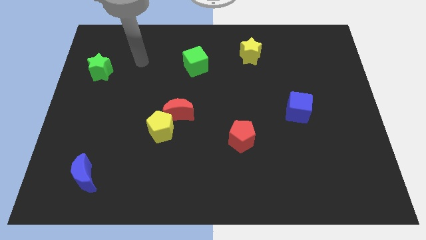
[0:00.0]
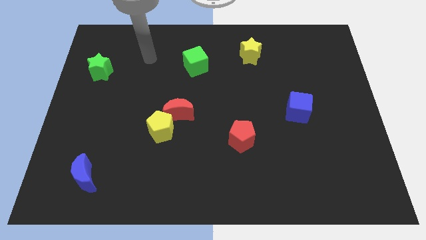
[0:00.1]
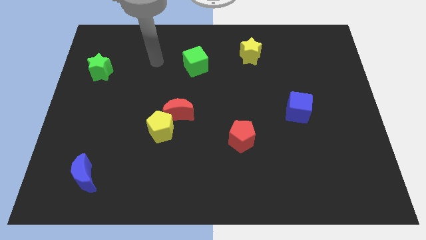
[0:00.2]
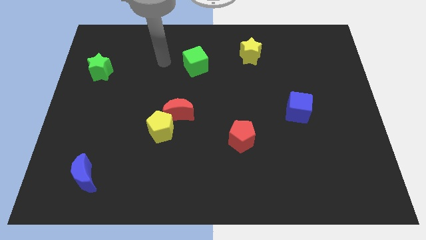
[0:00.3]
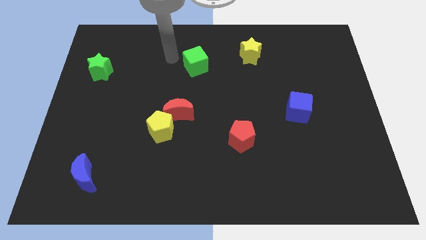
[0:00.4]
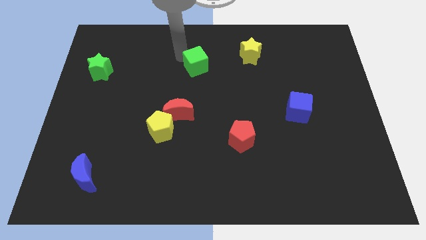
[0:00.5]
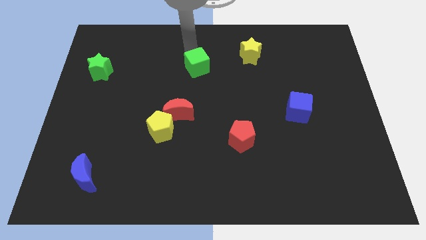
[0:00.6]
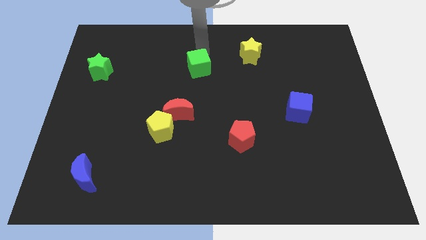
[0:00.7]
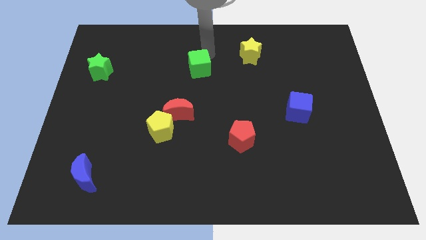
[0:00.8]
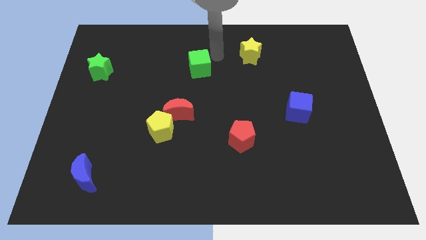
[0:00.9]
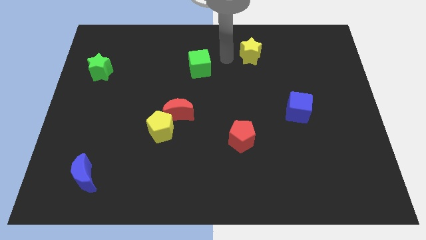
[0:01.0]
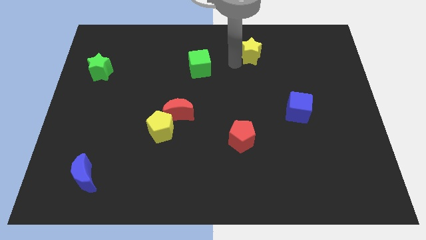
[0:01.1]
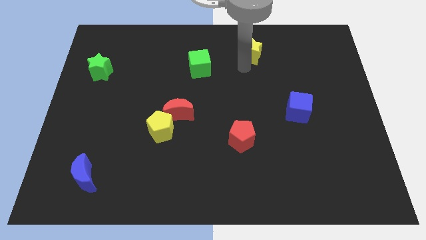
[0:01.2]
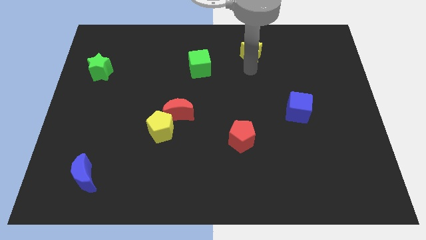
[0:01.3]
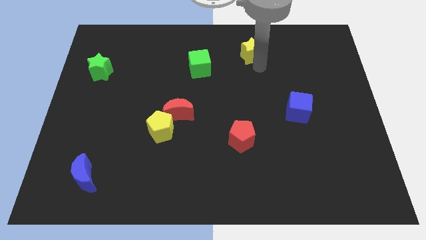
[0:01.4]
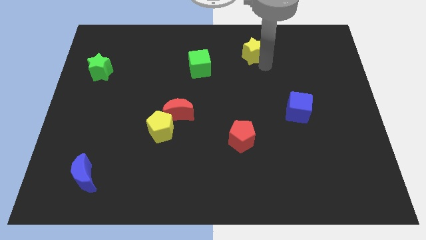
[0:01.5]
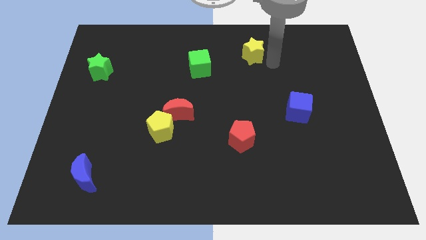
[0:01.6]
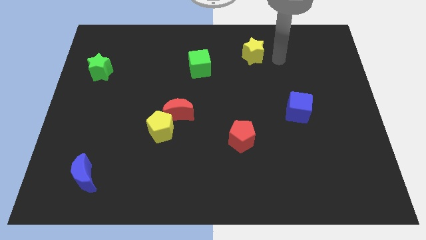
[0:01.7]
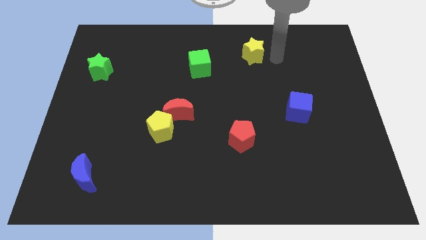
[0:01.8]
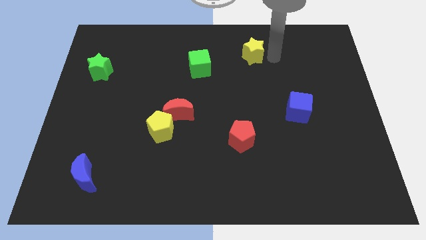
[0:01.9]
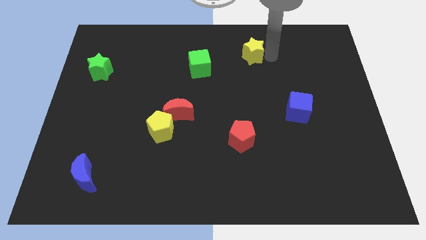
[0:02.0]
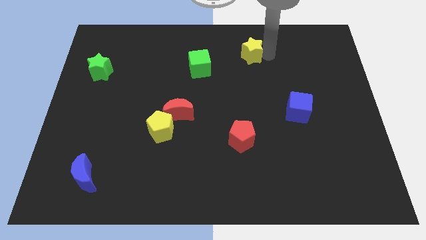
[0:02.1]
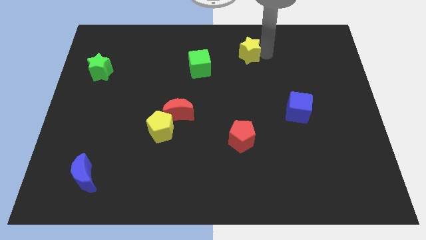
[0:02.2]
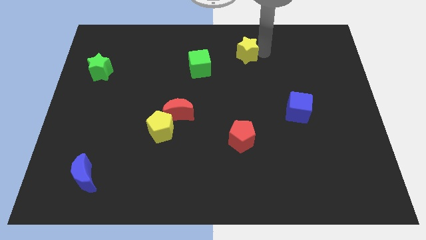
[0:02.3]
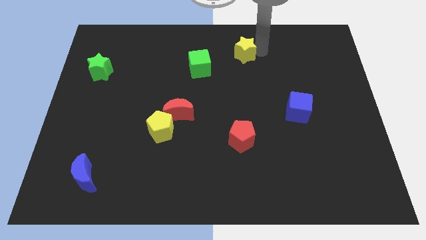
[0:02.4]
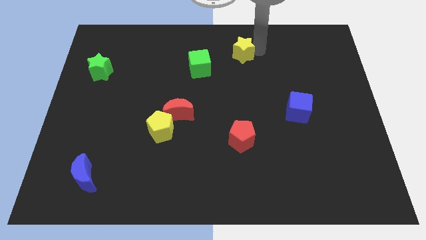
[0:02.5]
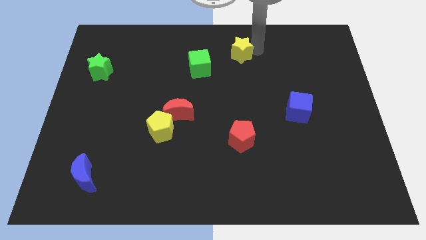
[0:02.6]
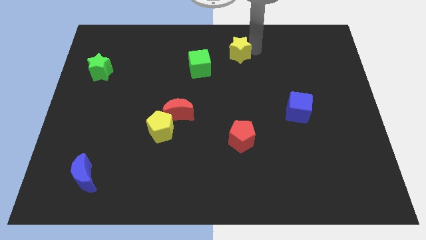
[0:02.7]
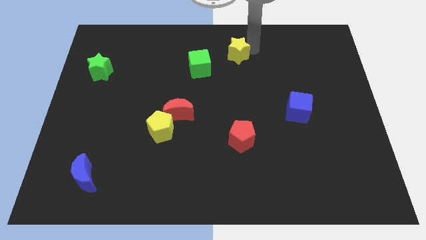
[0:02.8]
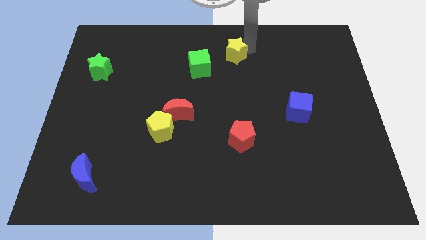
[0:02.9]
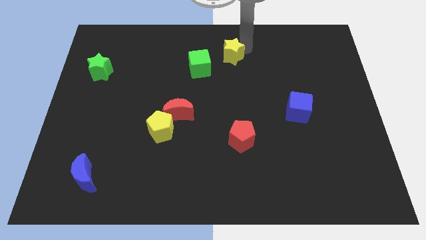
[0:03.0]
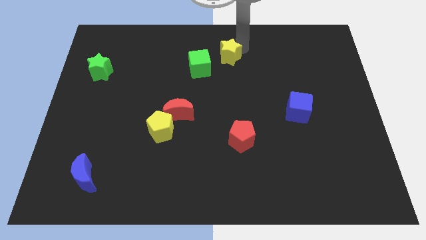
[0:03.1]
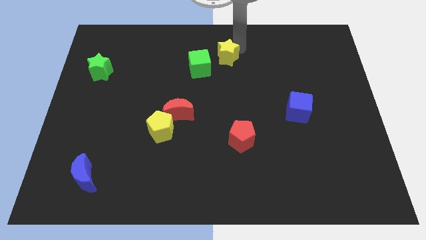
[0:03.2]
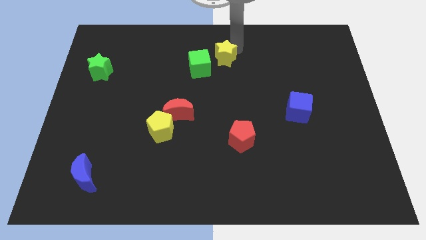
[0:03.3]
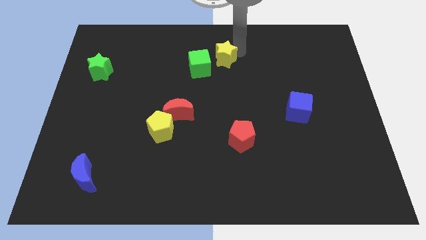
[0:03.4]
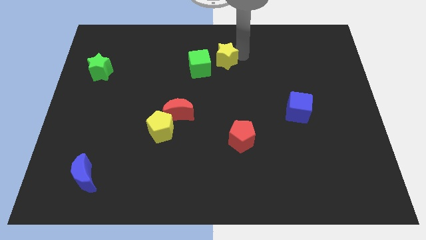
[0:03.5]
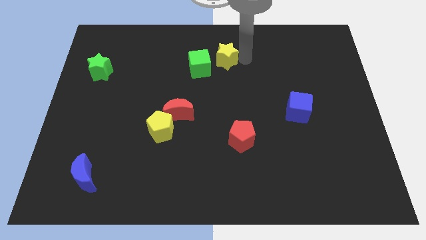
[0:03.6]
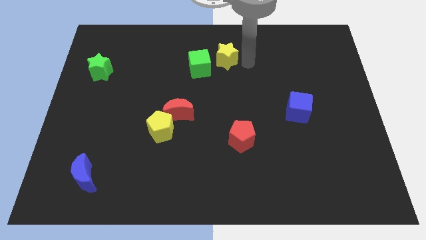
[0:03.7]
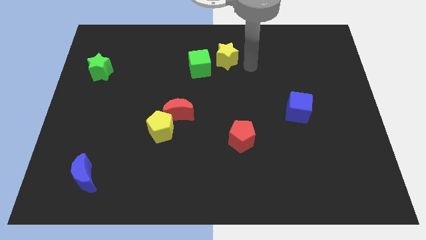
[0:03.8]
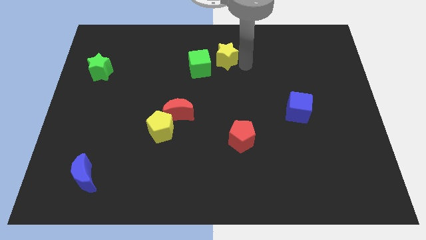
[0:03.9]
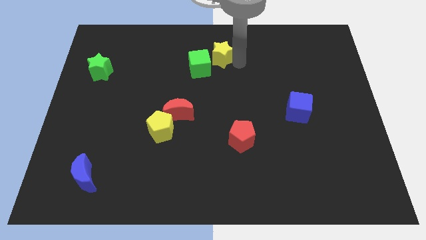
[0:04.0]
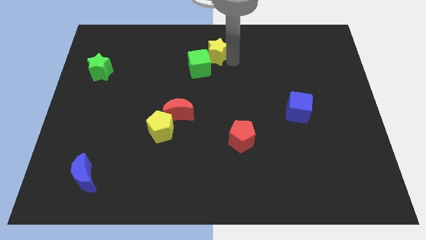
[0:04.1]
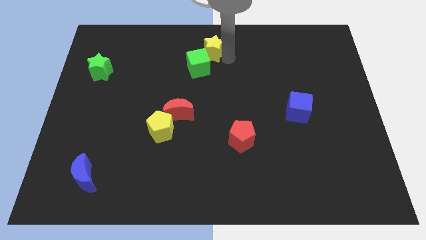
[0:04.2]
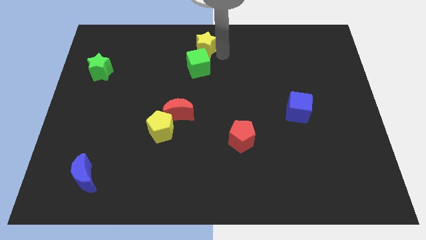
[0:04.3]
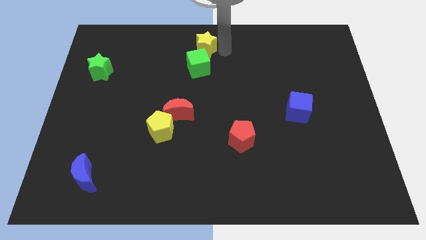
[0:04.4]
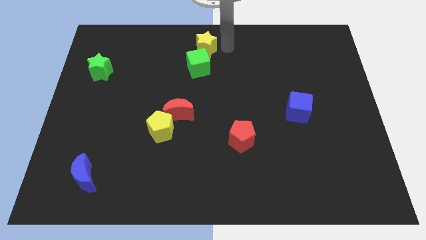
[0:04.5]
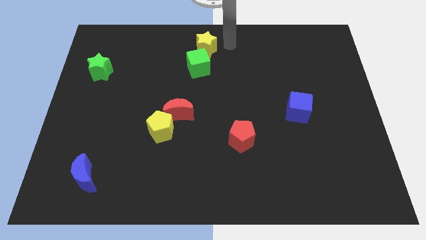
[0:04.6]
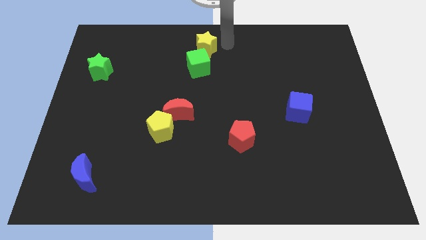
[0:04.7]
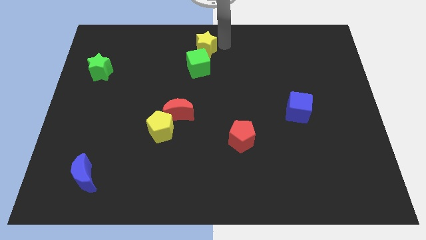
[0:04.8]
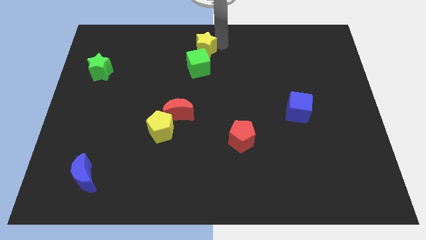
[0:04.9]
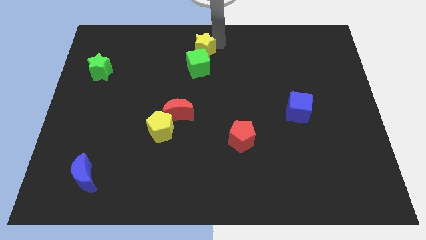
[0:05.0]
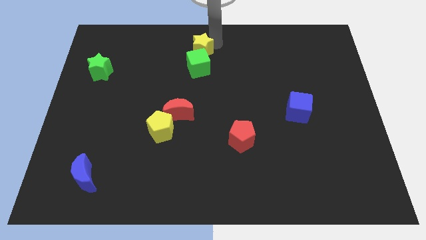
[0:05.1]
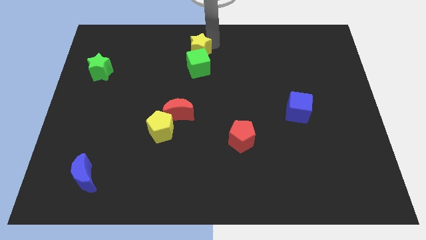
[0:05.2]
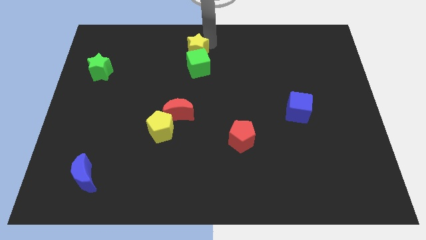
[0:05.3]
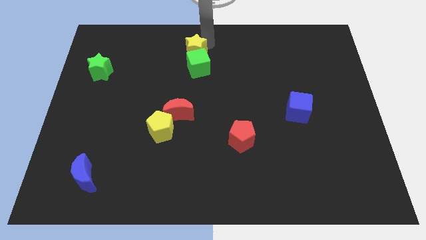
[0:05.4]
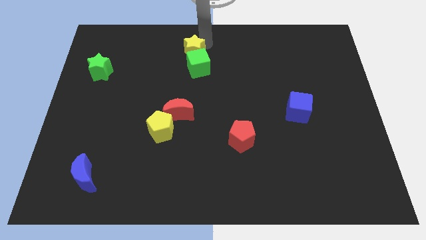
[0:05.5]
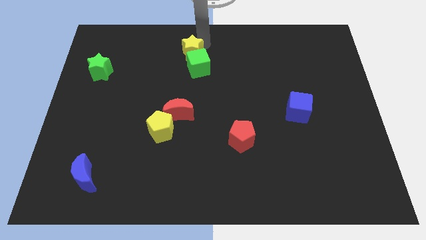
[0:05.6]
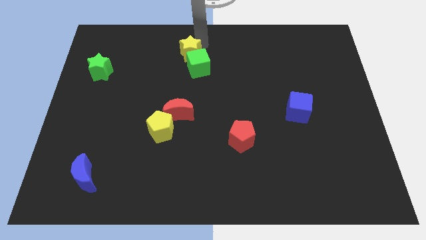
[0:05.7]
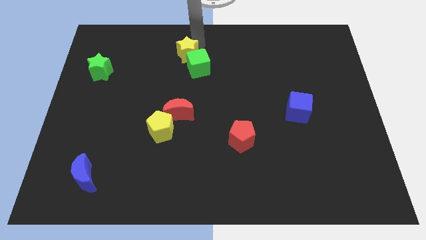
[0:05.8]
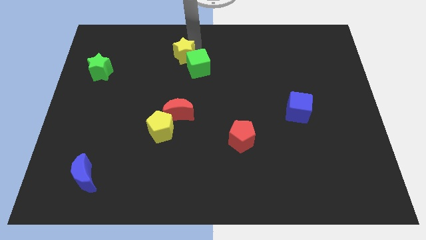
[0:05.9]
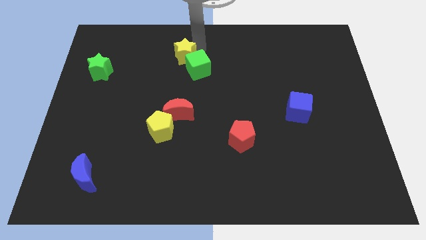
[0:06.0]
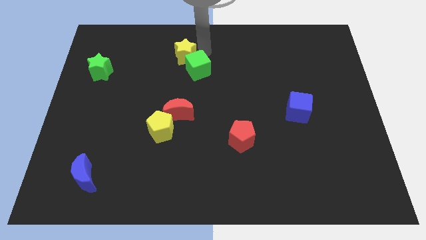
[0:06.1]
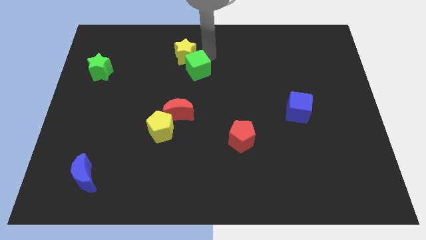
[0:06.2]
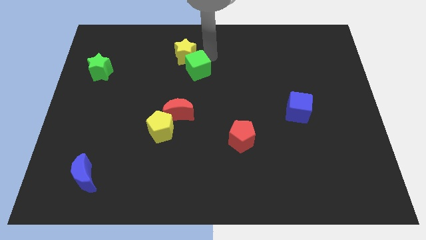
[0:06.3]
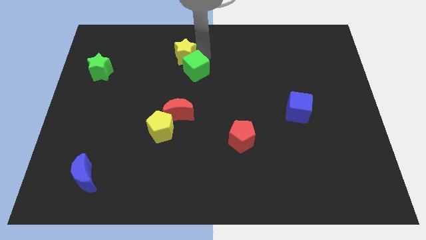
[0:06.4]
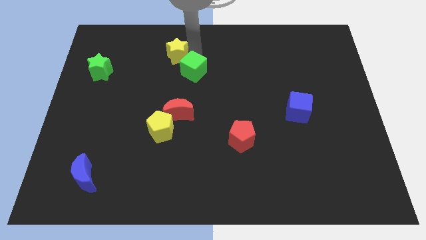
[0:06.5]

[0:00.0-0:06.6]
slide the yellow star left

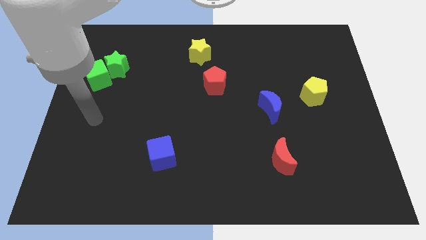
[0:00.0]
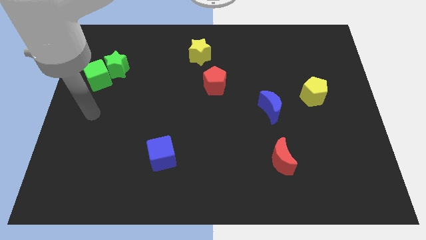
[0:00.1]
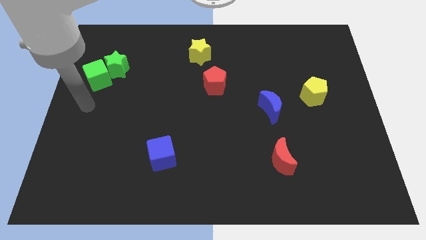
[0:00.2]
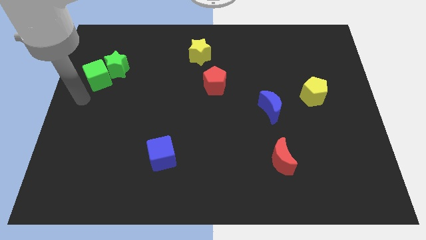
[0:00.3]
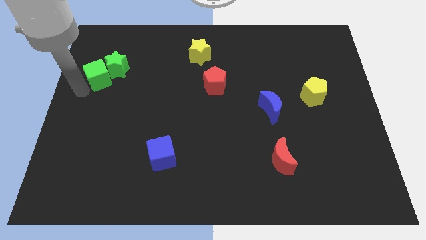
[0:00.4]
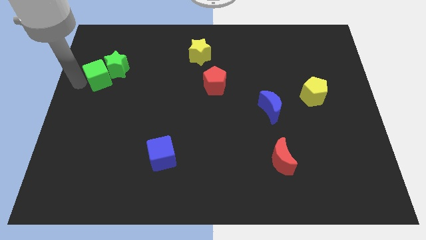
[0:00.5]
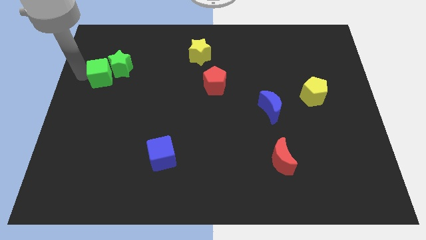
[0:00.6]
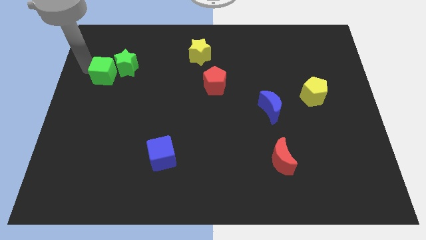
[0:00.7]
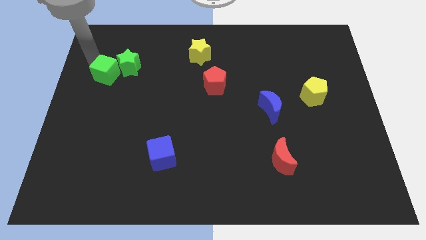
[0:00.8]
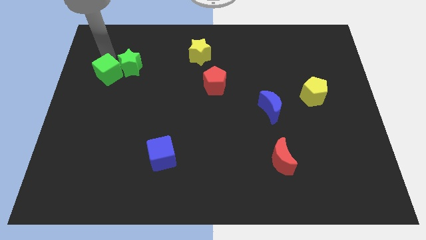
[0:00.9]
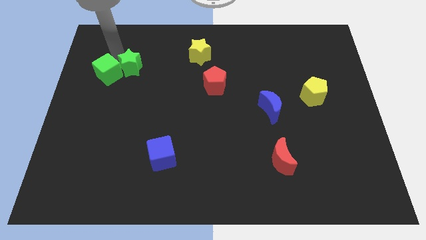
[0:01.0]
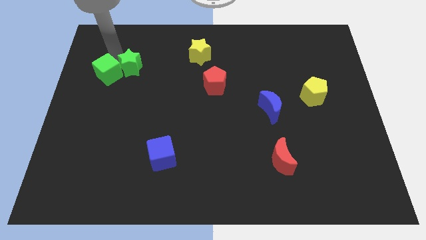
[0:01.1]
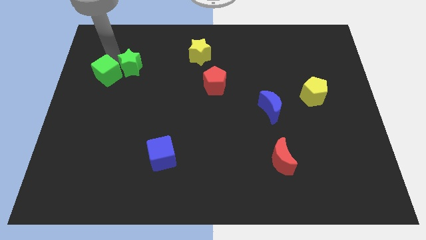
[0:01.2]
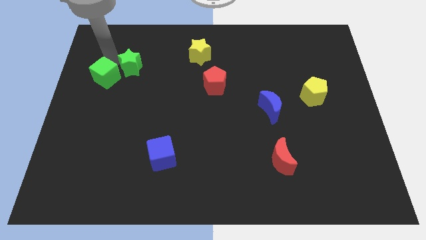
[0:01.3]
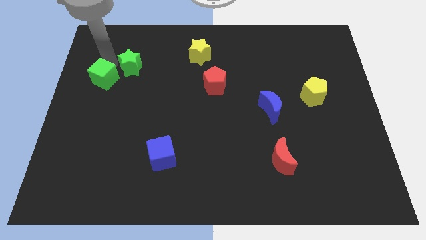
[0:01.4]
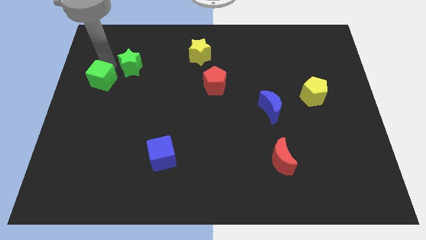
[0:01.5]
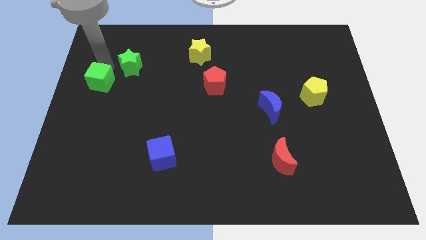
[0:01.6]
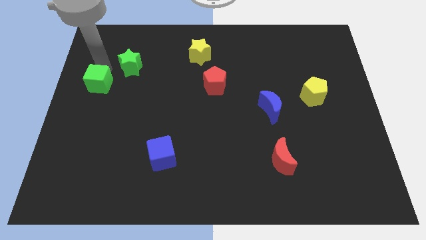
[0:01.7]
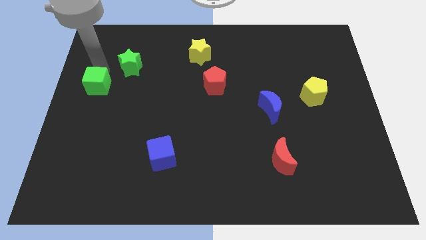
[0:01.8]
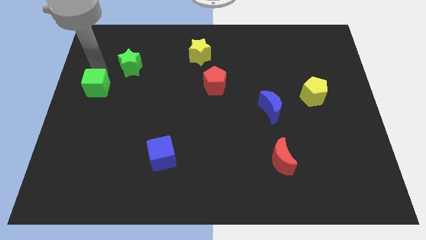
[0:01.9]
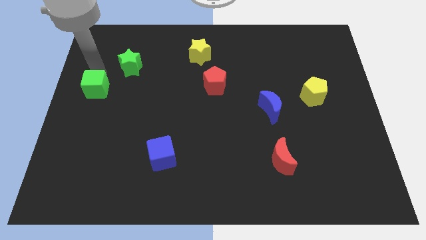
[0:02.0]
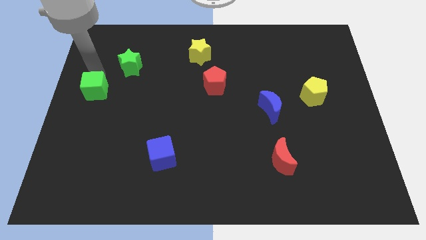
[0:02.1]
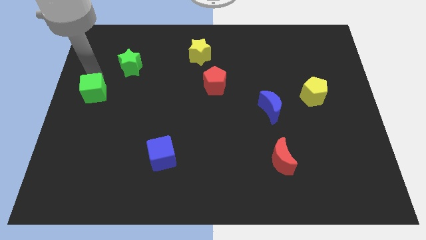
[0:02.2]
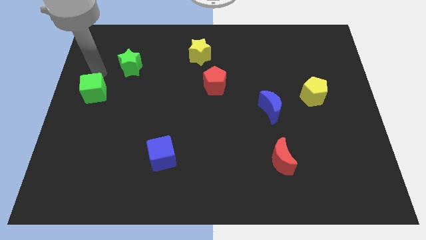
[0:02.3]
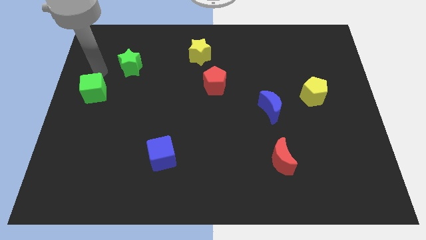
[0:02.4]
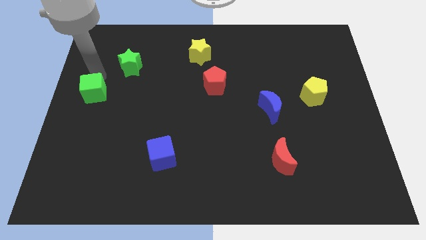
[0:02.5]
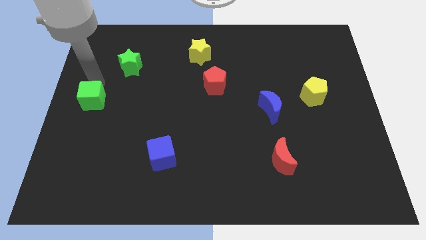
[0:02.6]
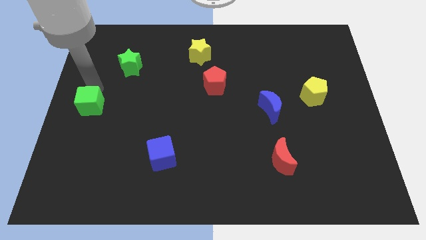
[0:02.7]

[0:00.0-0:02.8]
move the green cube slightly down
